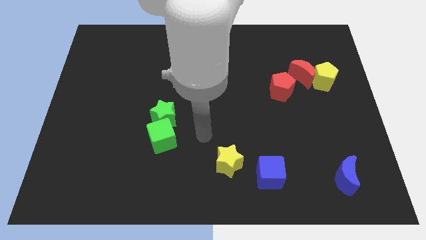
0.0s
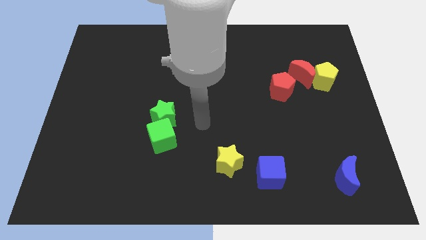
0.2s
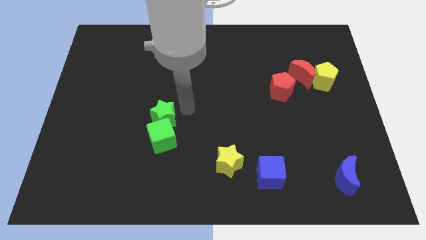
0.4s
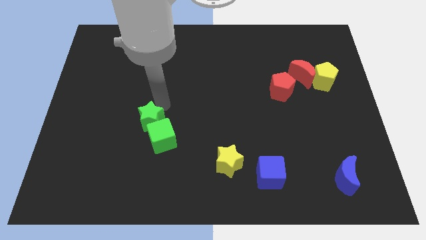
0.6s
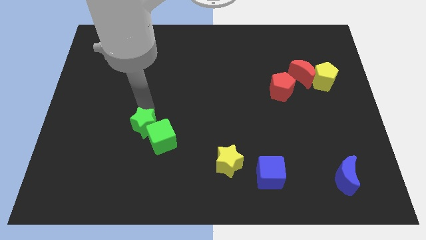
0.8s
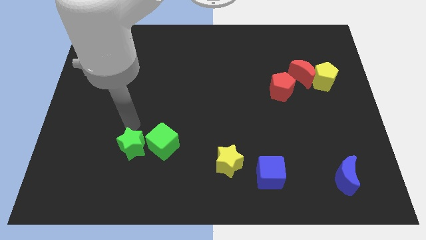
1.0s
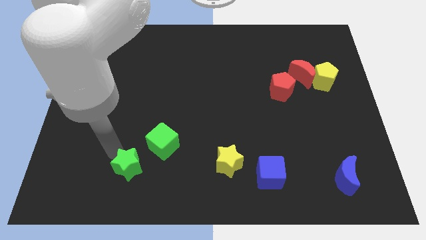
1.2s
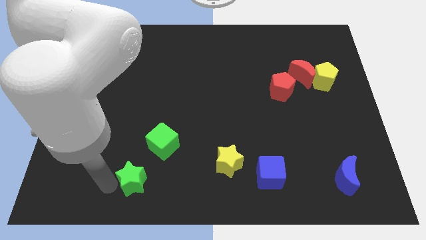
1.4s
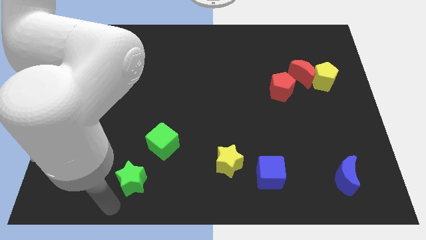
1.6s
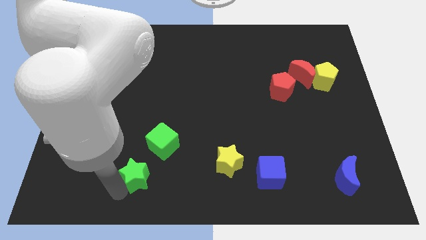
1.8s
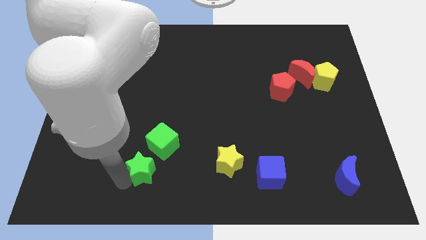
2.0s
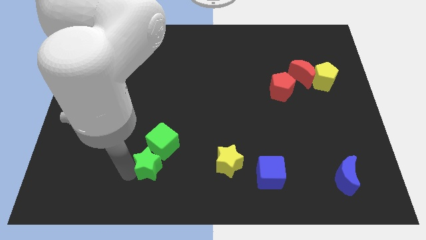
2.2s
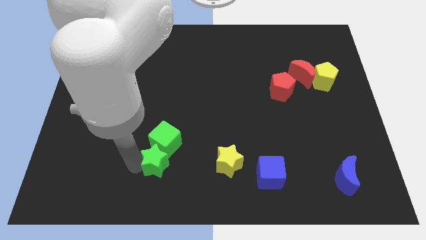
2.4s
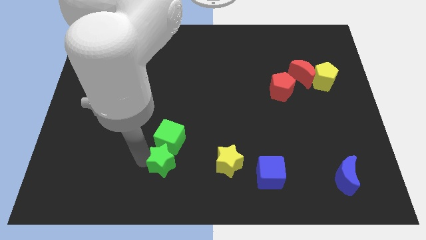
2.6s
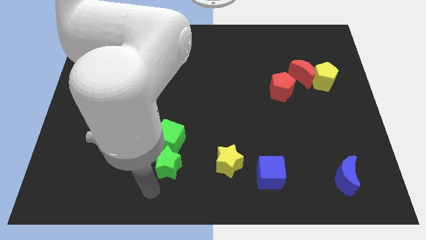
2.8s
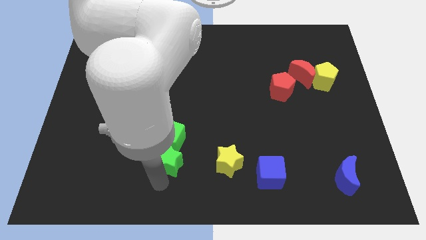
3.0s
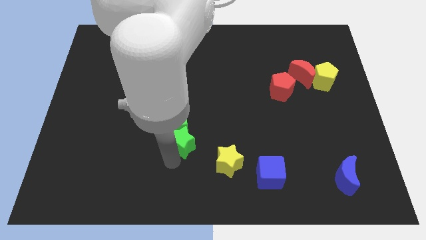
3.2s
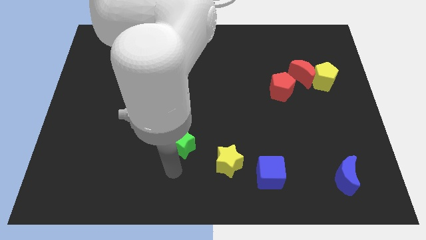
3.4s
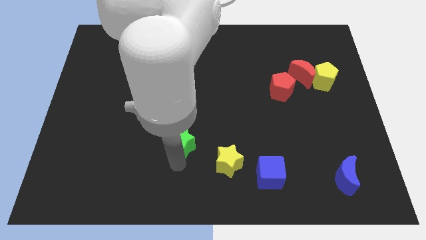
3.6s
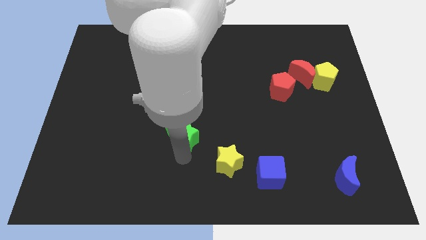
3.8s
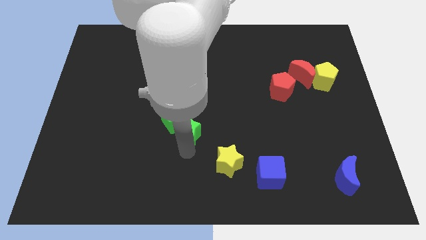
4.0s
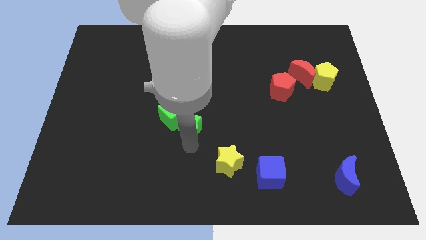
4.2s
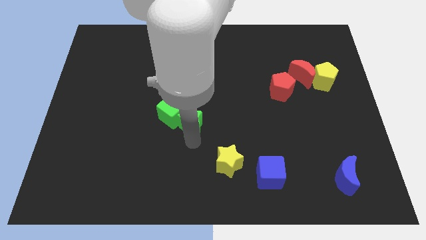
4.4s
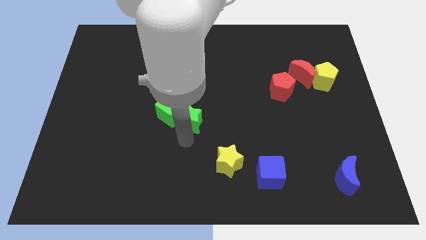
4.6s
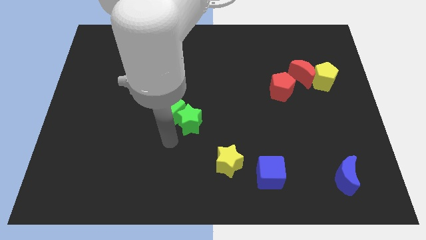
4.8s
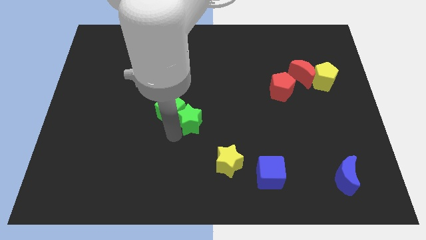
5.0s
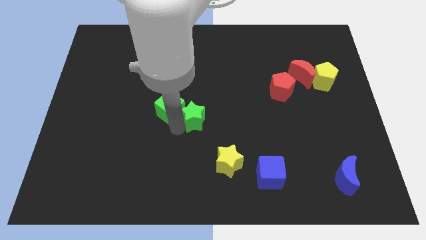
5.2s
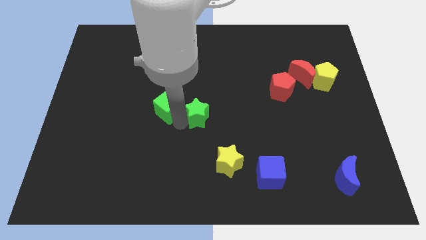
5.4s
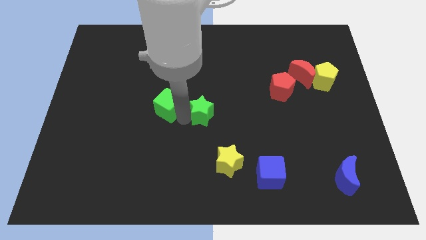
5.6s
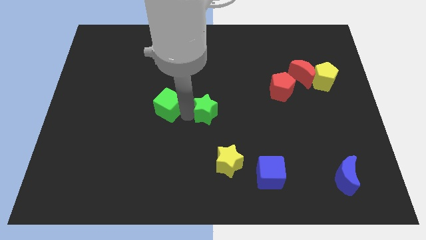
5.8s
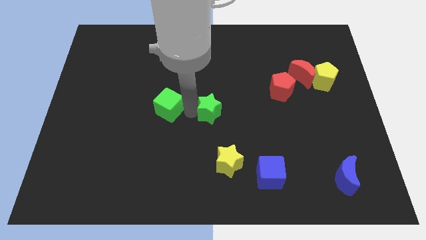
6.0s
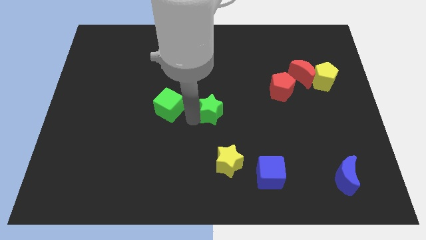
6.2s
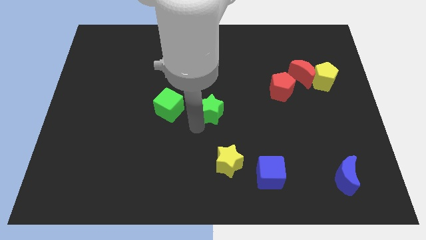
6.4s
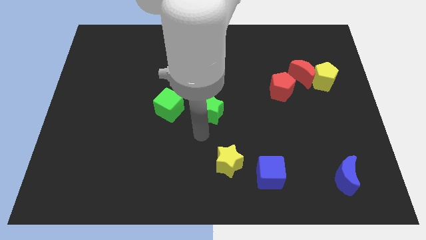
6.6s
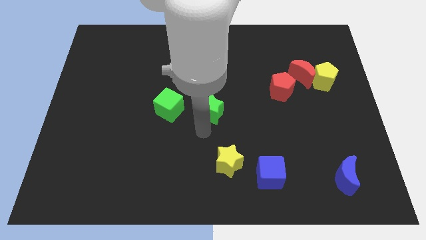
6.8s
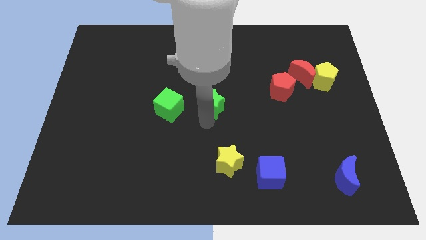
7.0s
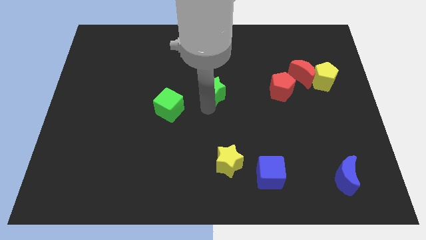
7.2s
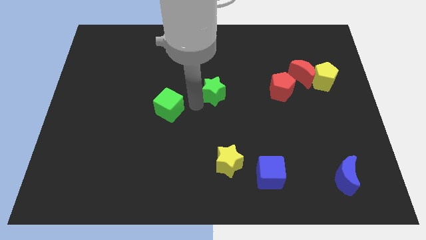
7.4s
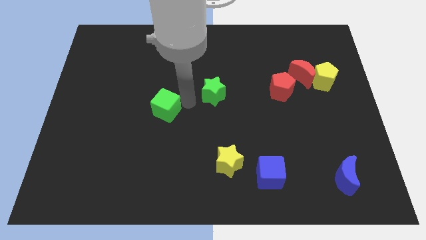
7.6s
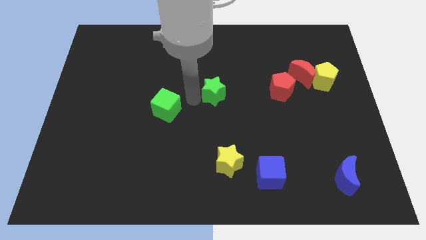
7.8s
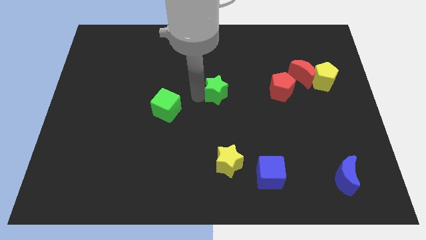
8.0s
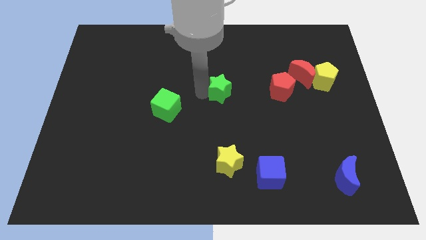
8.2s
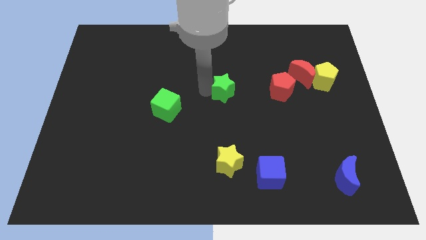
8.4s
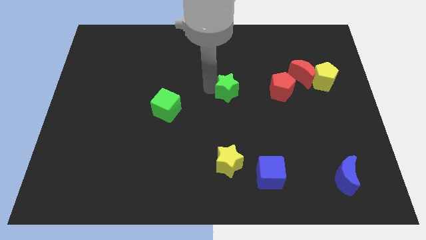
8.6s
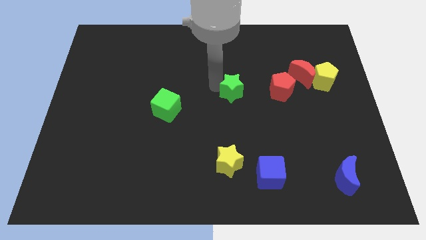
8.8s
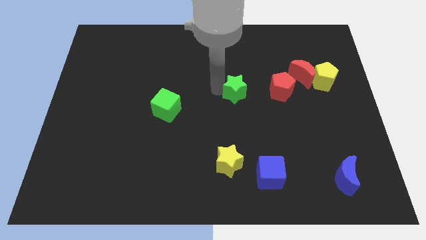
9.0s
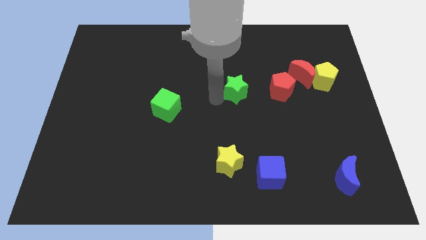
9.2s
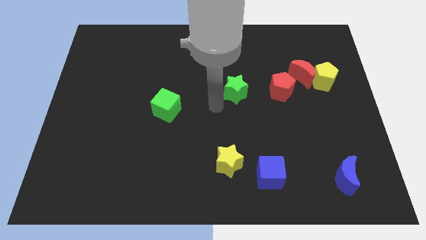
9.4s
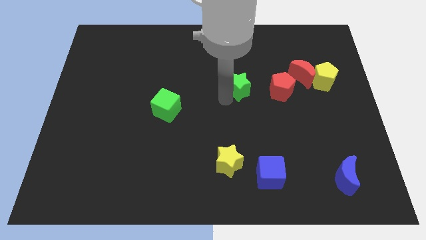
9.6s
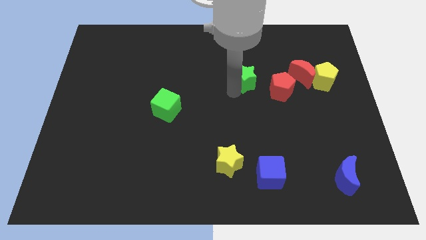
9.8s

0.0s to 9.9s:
move the green star left of the red moon

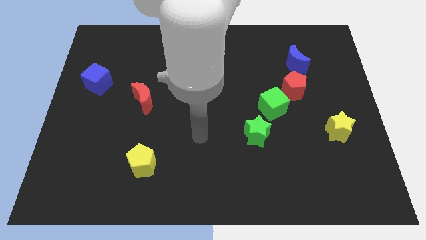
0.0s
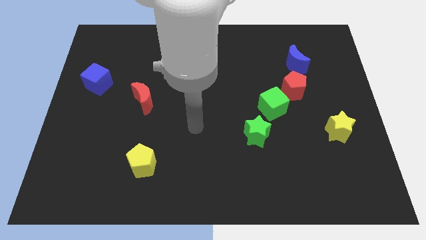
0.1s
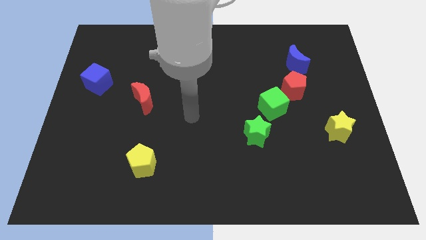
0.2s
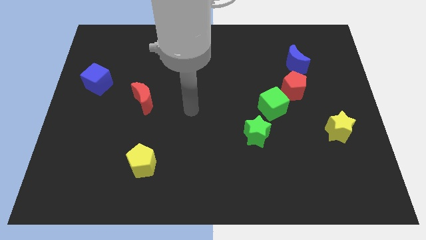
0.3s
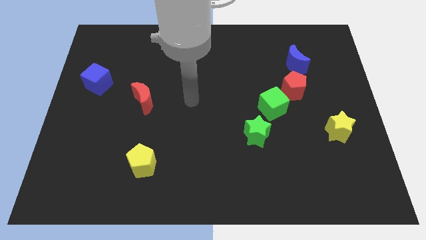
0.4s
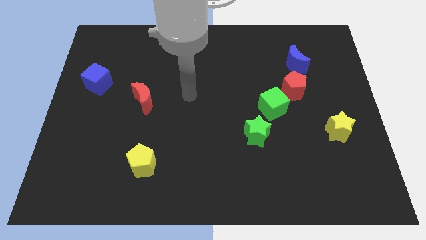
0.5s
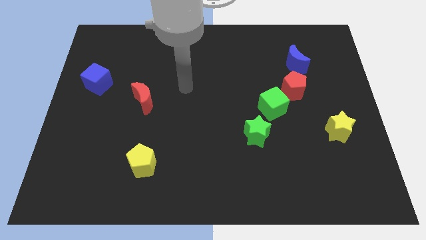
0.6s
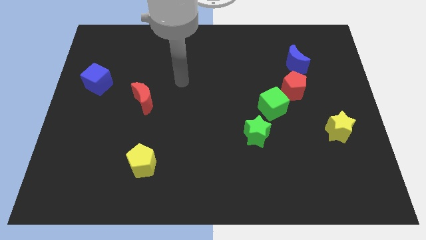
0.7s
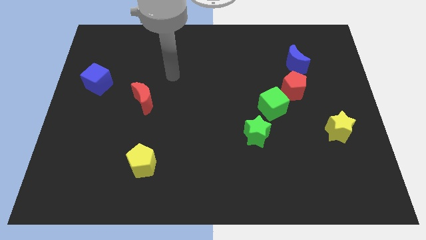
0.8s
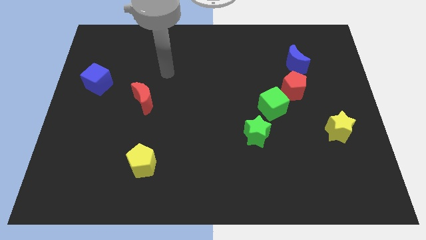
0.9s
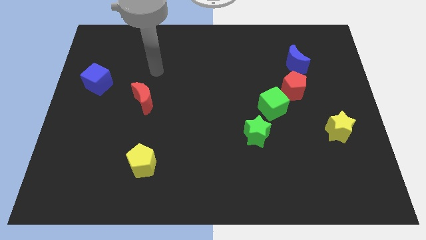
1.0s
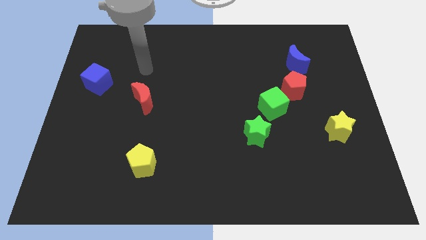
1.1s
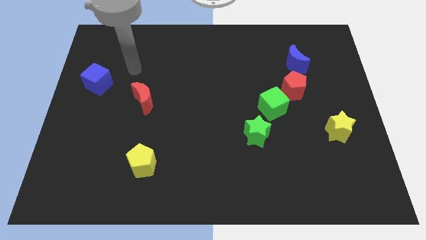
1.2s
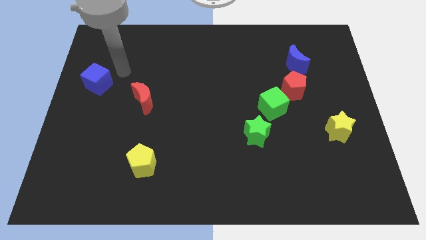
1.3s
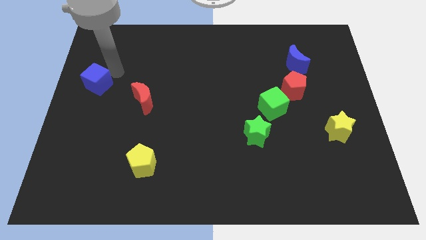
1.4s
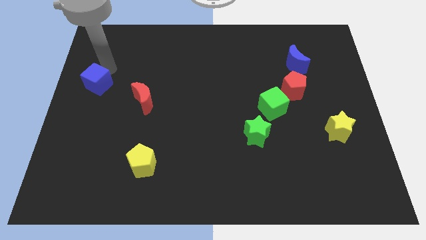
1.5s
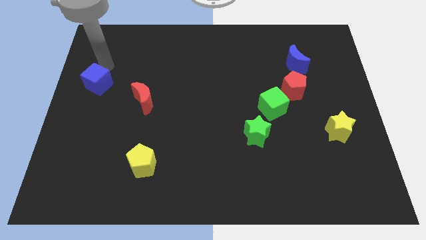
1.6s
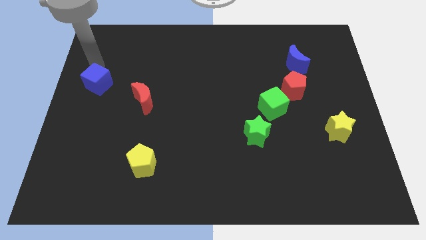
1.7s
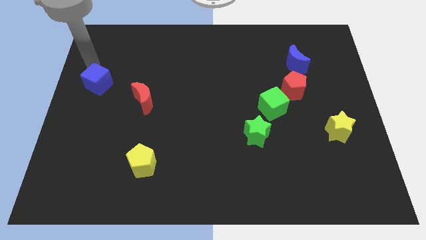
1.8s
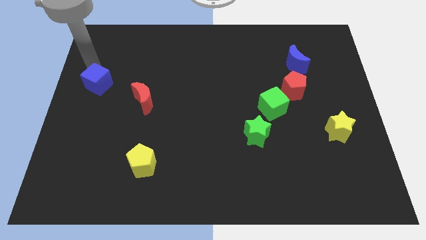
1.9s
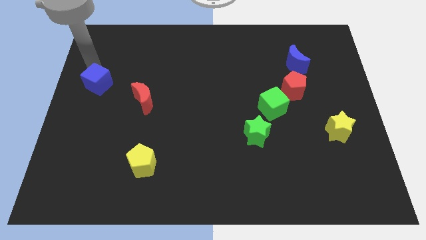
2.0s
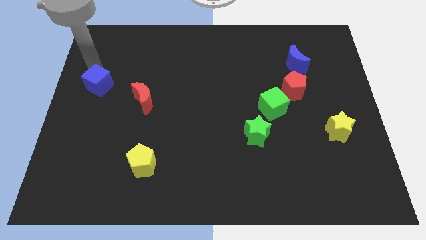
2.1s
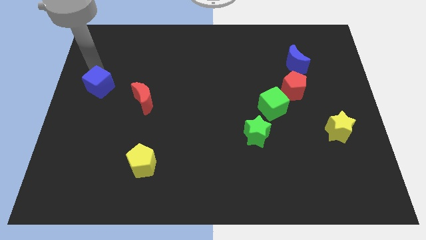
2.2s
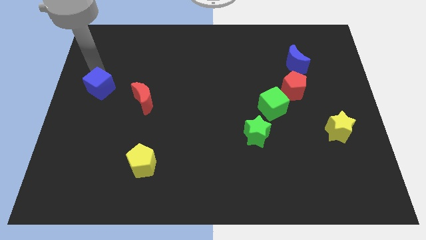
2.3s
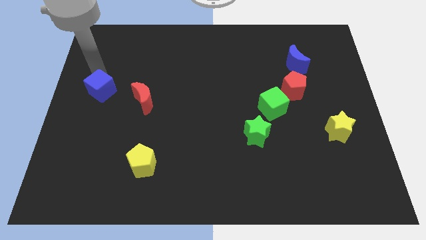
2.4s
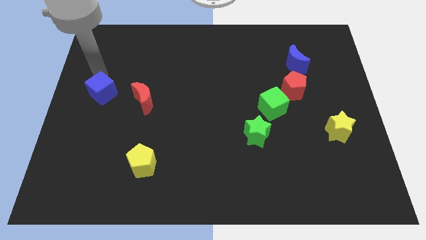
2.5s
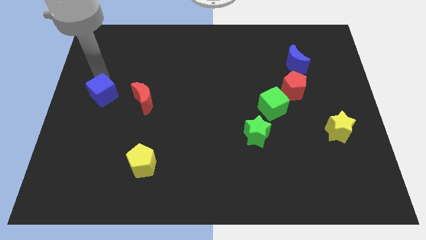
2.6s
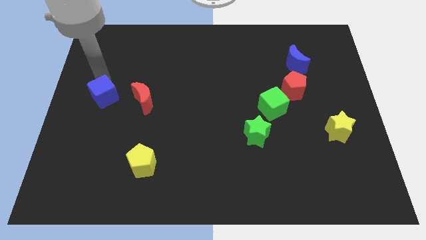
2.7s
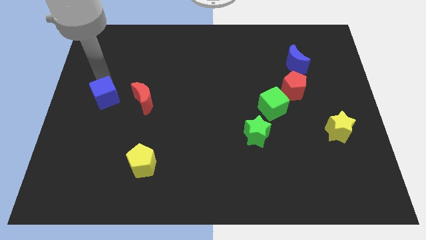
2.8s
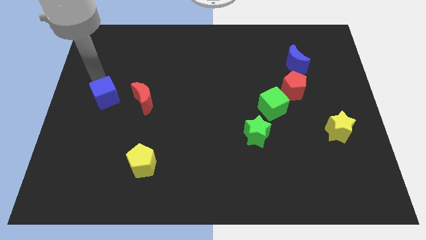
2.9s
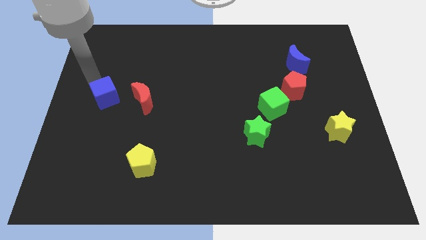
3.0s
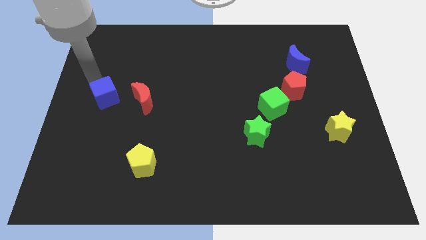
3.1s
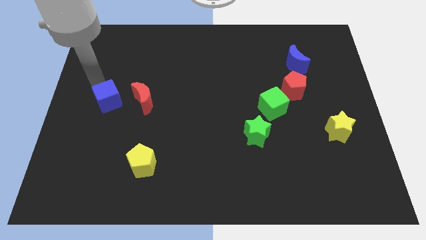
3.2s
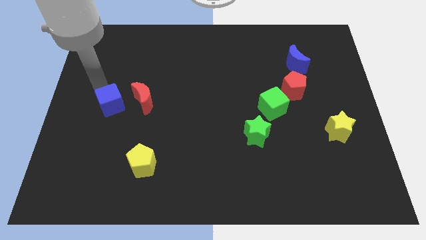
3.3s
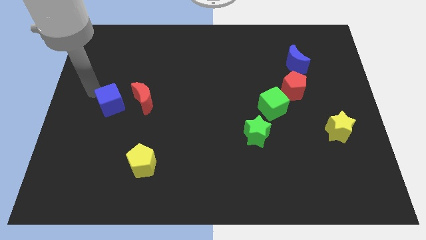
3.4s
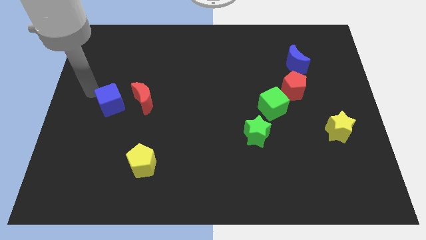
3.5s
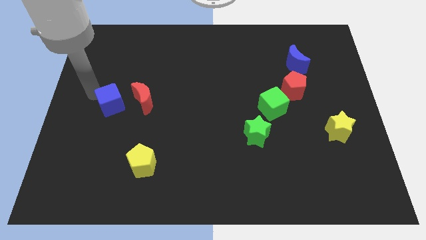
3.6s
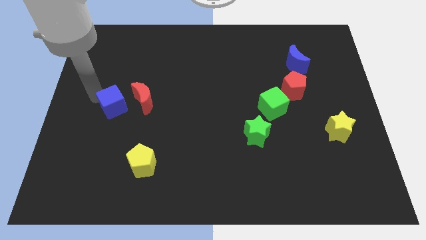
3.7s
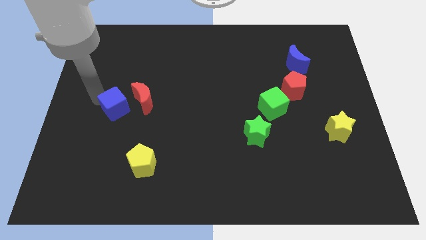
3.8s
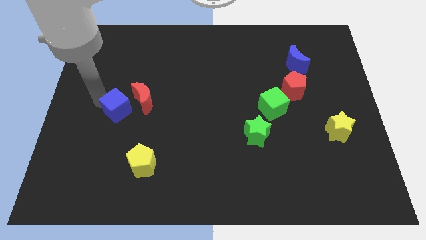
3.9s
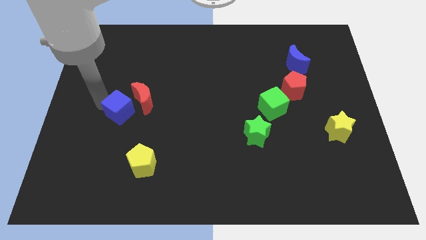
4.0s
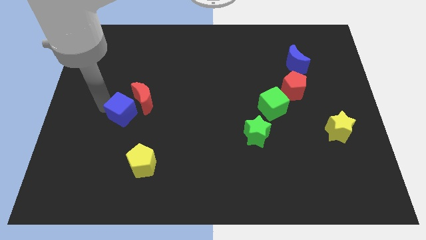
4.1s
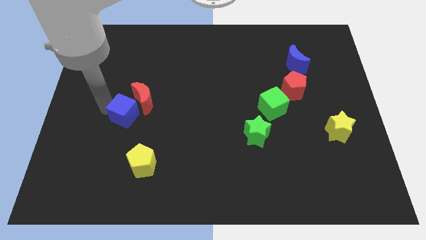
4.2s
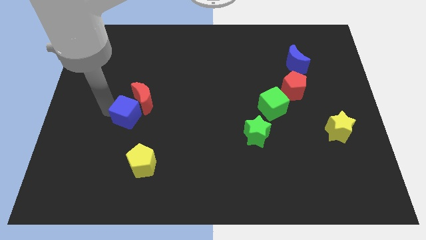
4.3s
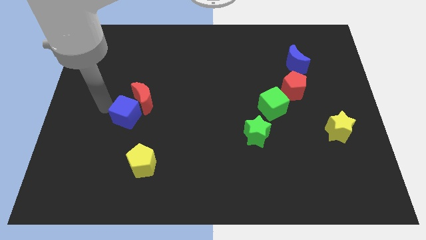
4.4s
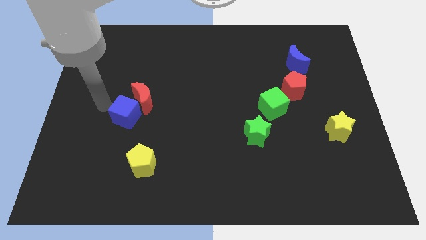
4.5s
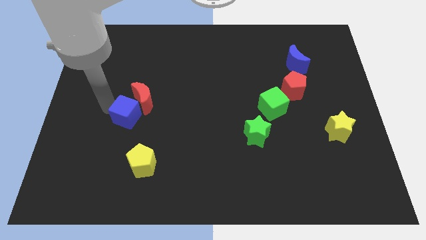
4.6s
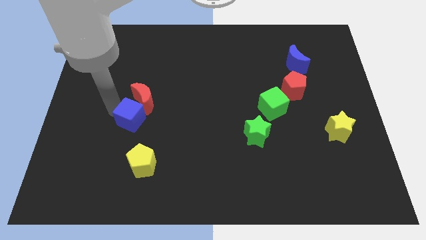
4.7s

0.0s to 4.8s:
push the blue cube above the yellow pentagon
